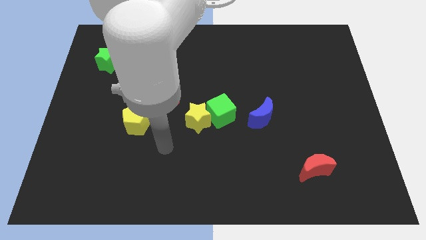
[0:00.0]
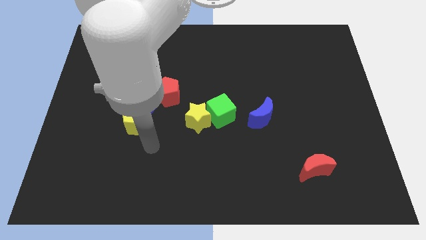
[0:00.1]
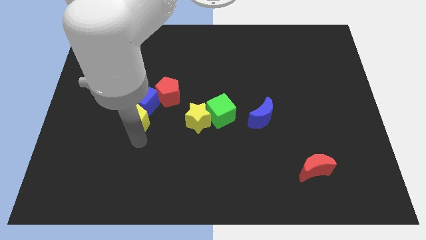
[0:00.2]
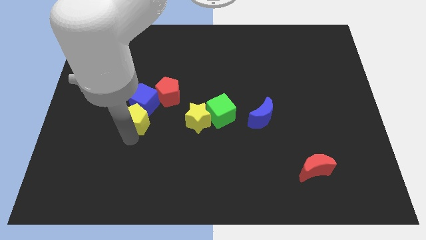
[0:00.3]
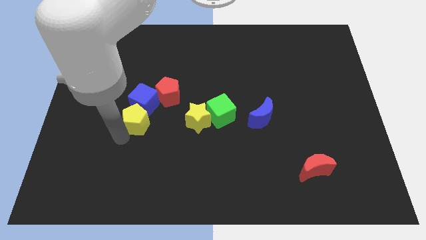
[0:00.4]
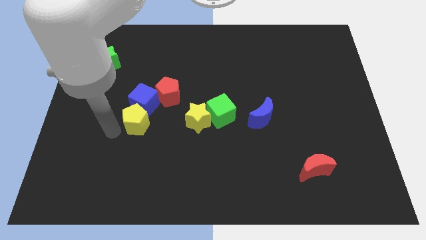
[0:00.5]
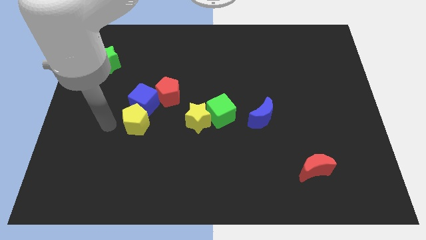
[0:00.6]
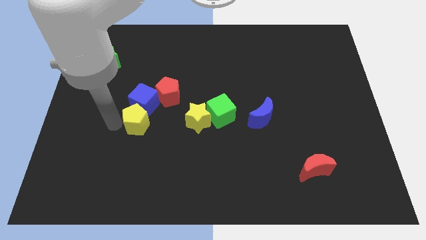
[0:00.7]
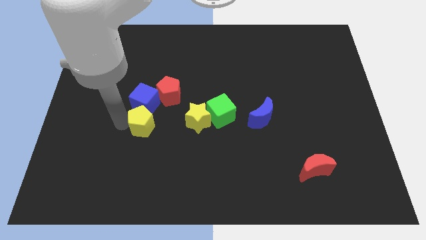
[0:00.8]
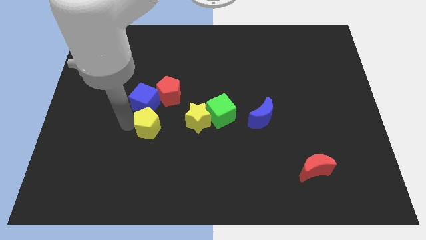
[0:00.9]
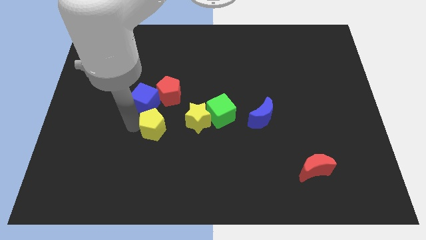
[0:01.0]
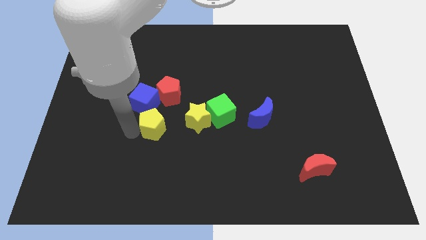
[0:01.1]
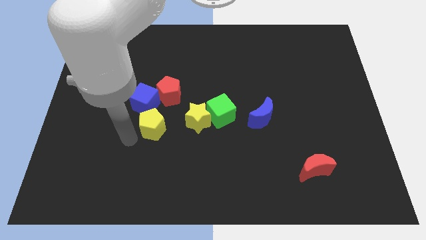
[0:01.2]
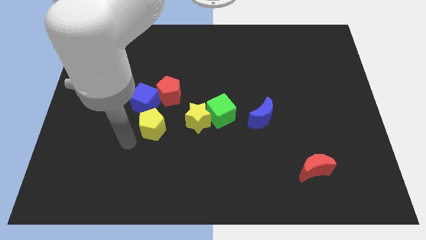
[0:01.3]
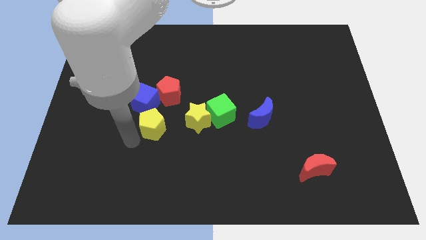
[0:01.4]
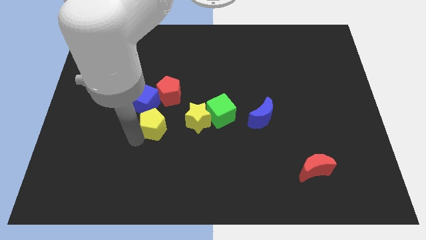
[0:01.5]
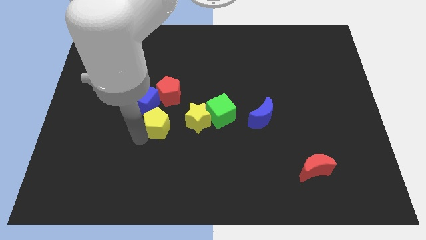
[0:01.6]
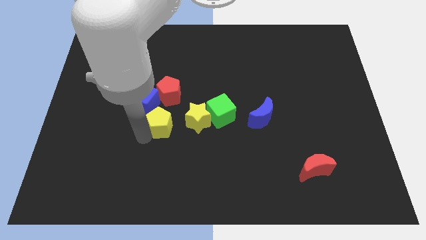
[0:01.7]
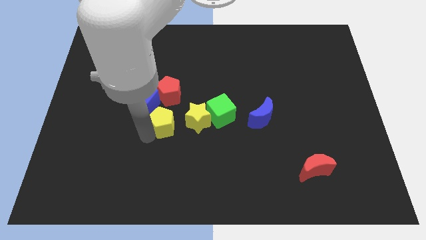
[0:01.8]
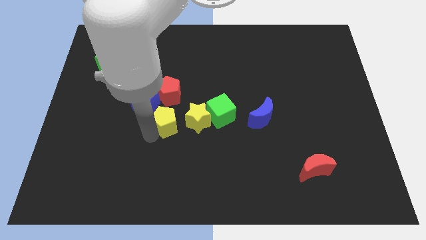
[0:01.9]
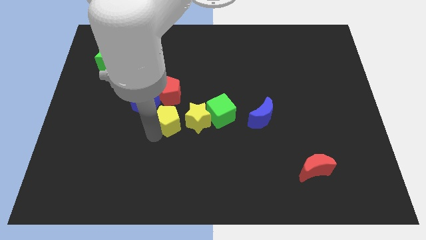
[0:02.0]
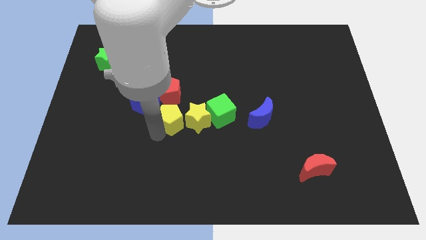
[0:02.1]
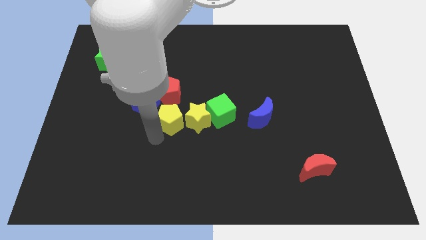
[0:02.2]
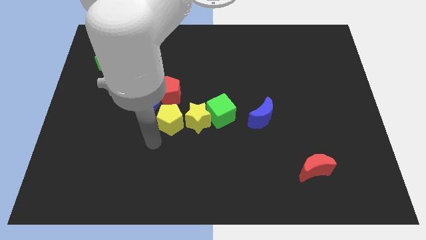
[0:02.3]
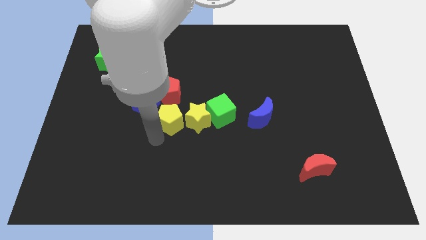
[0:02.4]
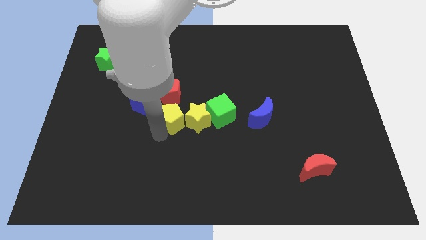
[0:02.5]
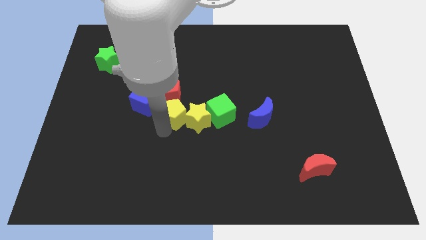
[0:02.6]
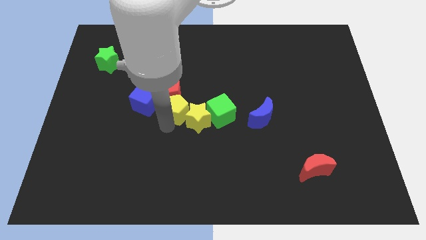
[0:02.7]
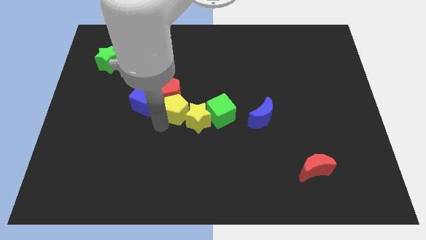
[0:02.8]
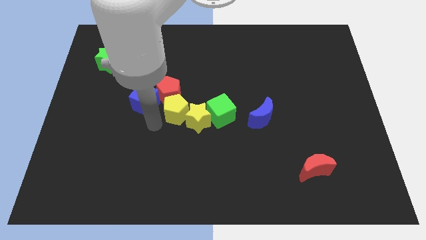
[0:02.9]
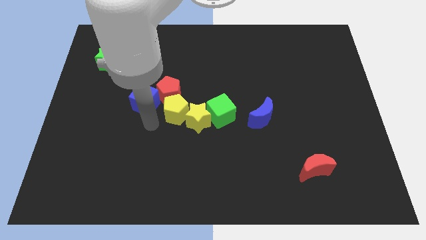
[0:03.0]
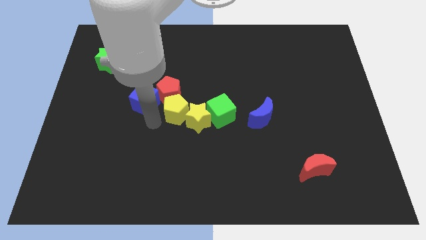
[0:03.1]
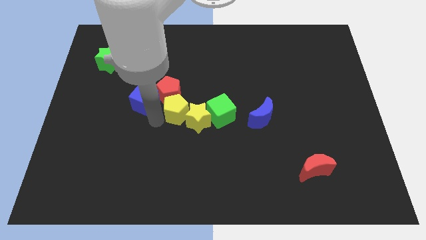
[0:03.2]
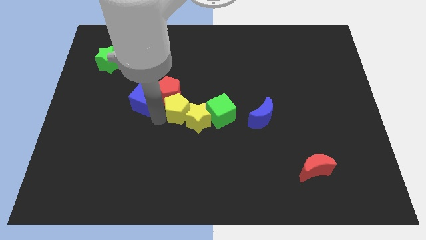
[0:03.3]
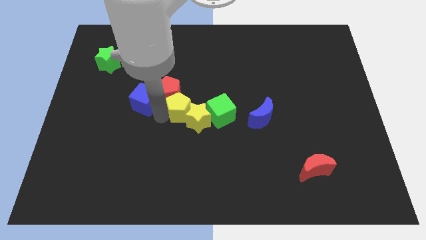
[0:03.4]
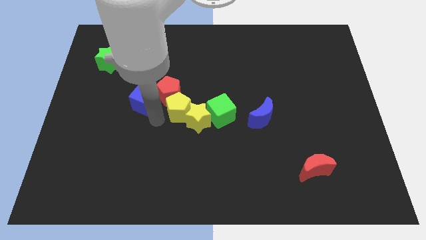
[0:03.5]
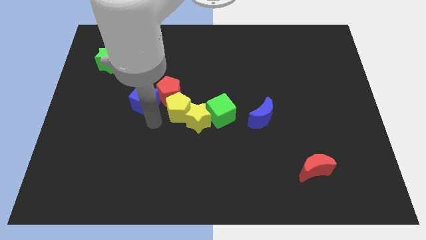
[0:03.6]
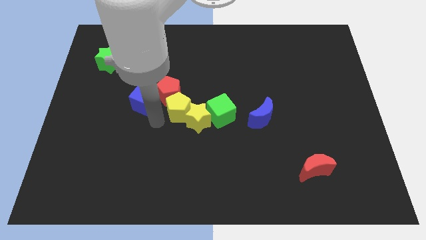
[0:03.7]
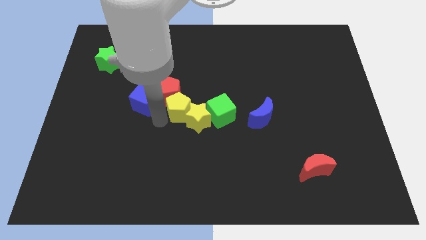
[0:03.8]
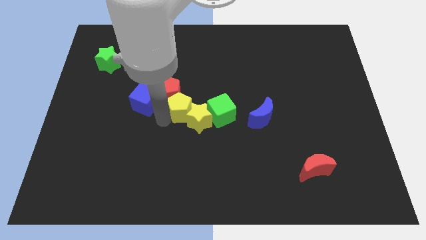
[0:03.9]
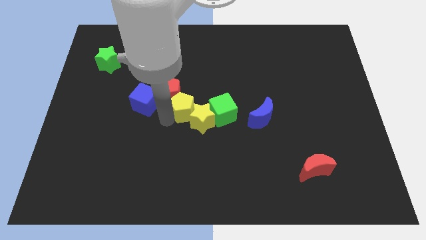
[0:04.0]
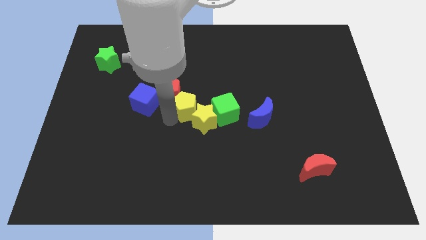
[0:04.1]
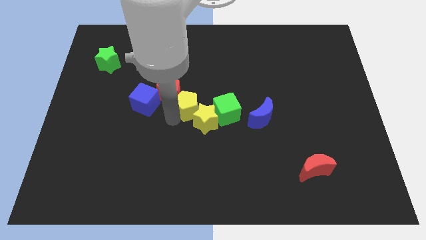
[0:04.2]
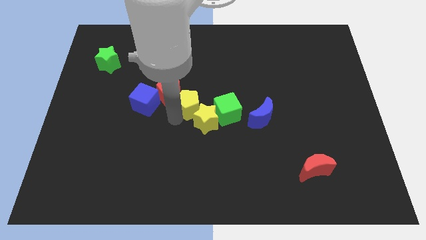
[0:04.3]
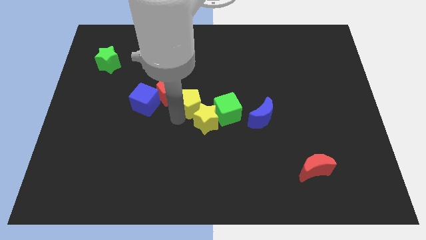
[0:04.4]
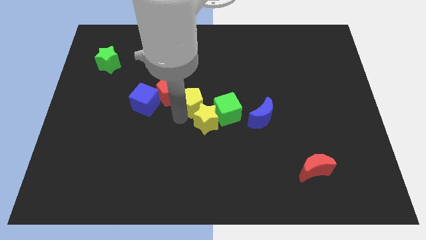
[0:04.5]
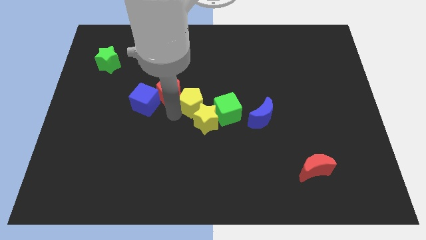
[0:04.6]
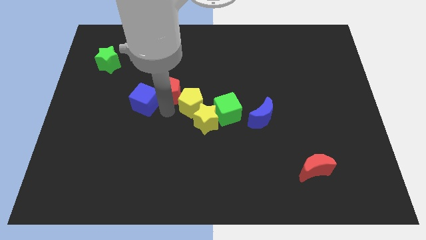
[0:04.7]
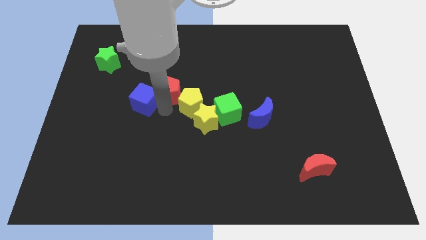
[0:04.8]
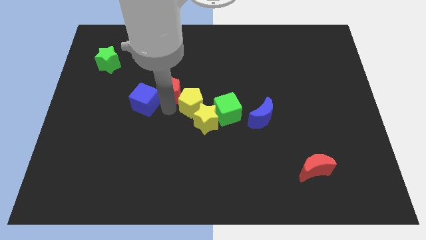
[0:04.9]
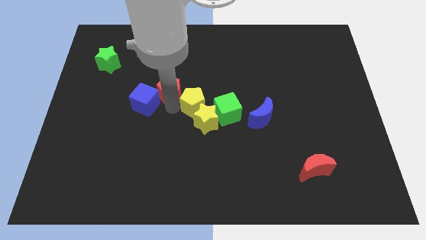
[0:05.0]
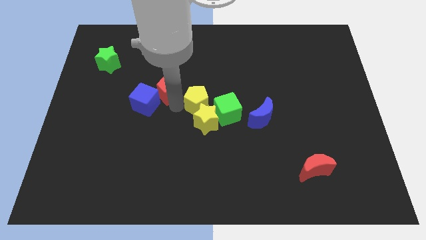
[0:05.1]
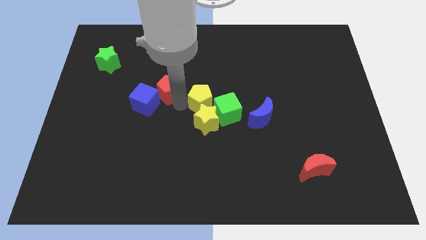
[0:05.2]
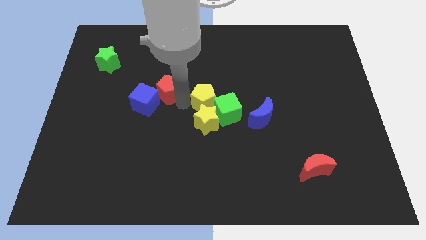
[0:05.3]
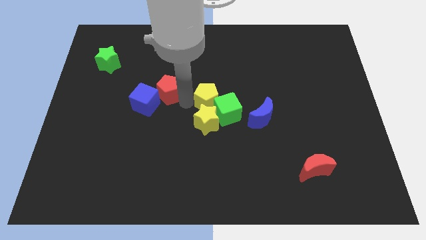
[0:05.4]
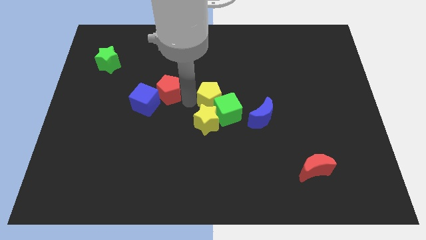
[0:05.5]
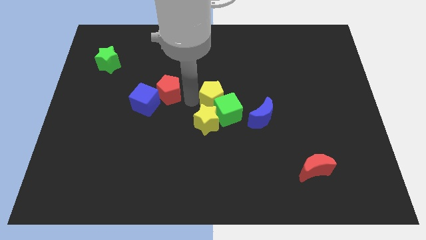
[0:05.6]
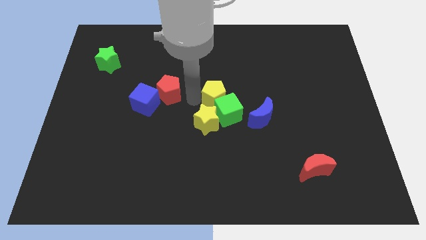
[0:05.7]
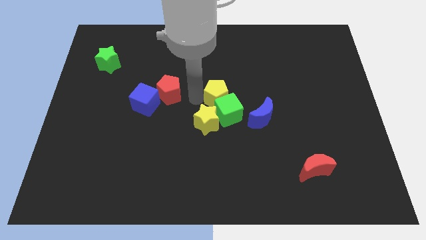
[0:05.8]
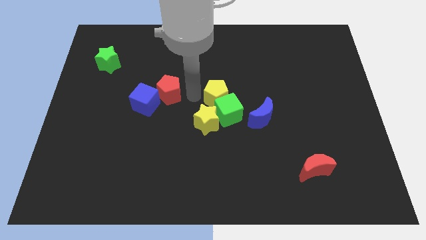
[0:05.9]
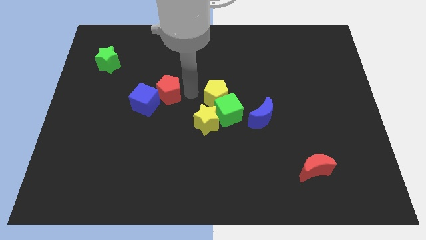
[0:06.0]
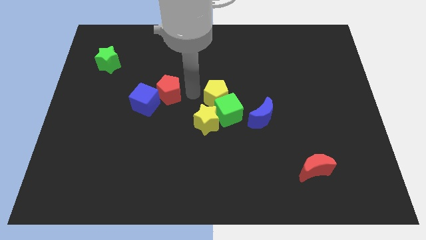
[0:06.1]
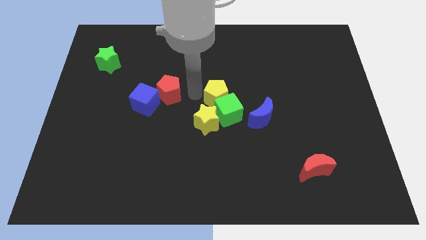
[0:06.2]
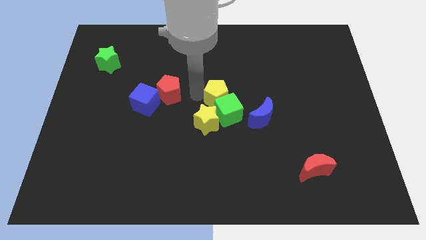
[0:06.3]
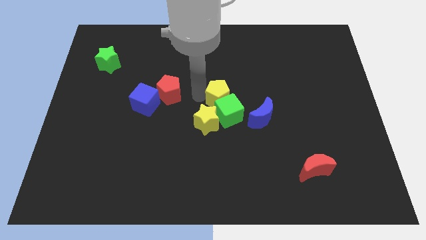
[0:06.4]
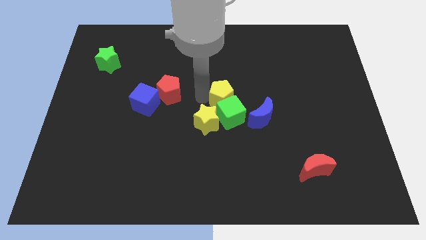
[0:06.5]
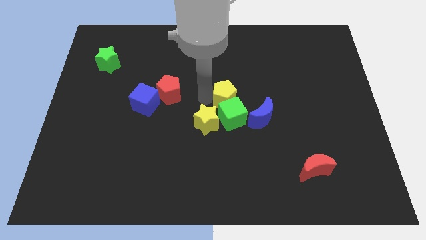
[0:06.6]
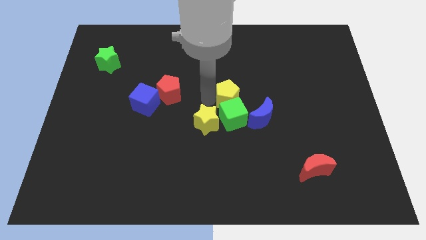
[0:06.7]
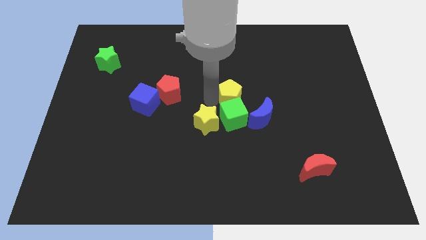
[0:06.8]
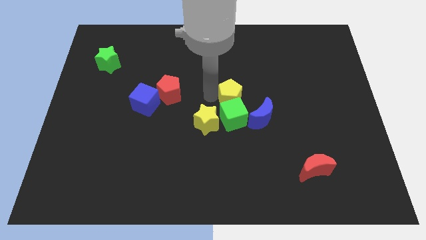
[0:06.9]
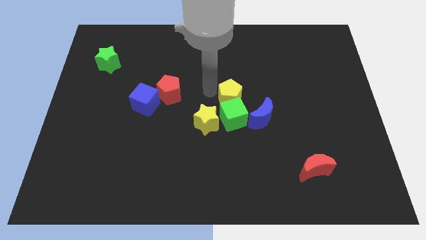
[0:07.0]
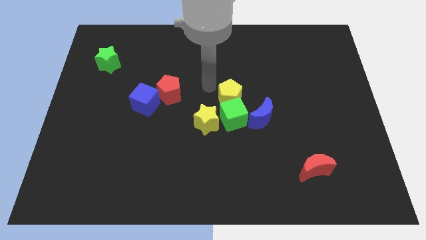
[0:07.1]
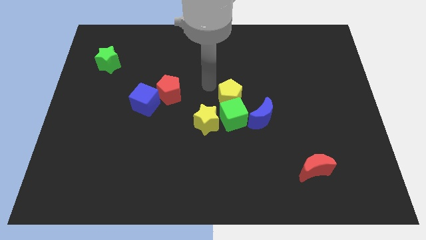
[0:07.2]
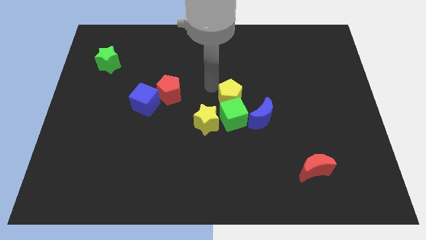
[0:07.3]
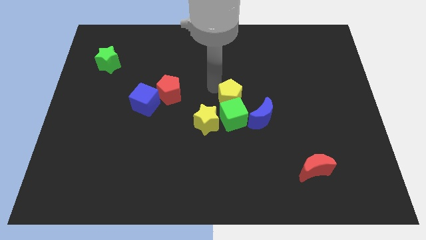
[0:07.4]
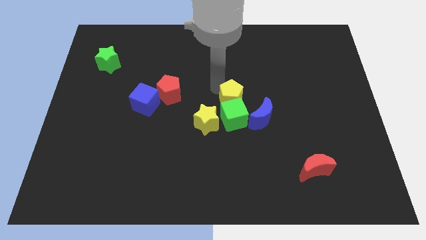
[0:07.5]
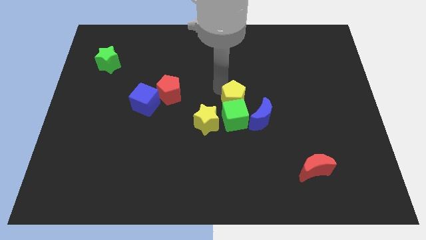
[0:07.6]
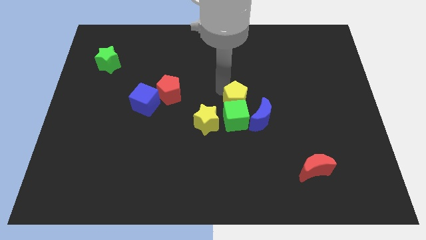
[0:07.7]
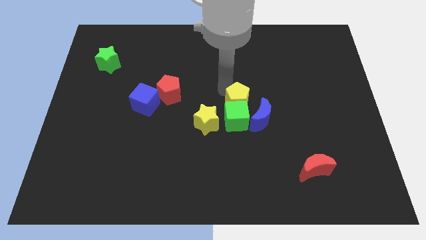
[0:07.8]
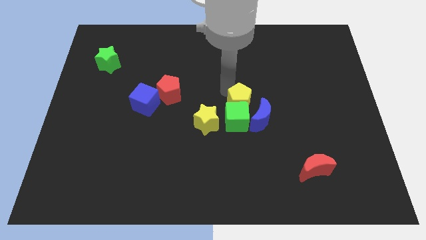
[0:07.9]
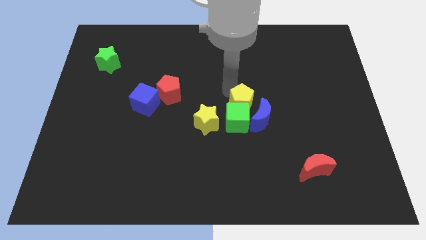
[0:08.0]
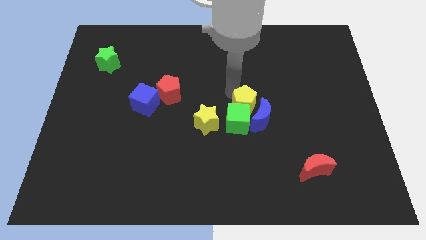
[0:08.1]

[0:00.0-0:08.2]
move the yellow pentagon close to the blue moon
